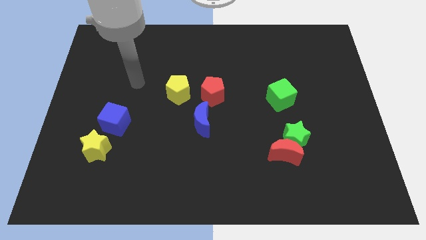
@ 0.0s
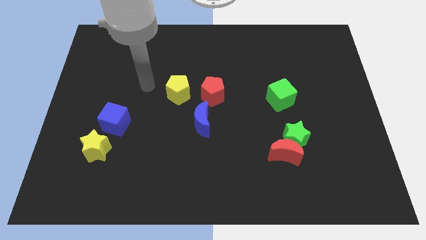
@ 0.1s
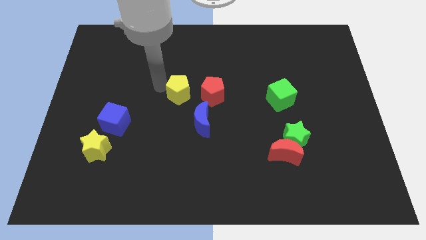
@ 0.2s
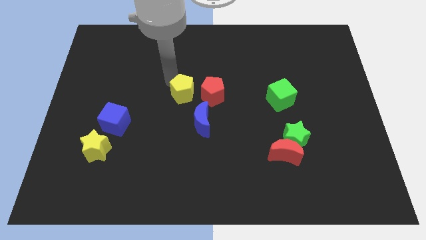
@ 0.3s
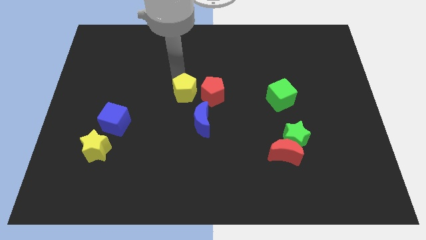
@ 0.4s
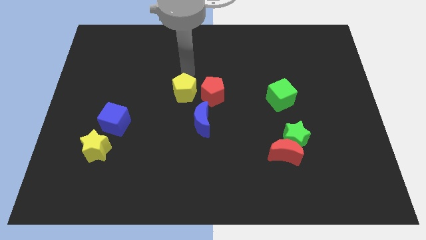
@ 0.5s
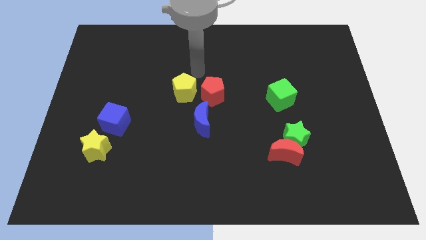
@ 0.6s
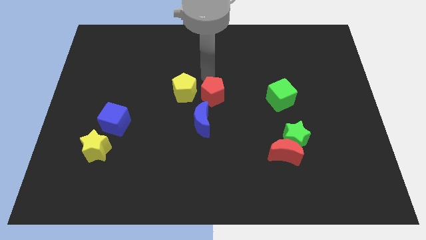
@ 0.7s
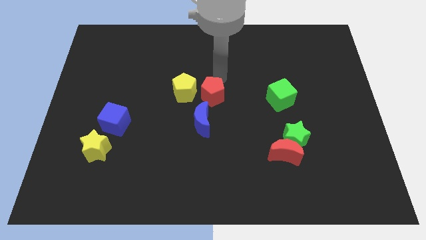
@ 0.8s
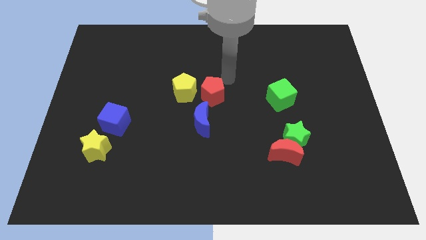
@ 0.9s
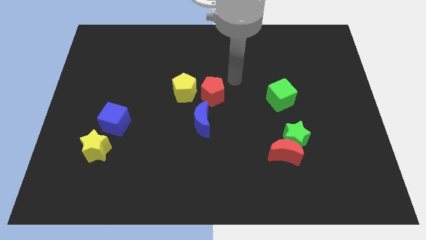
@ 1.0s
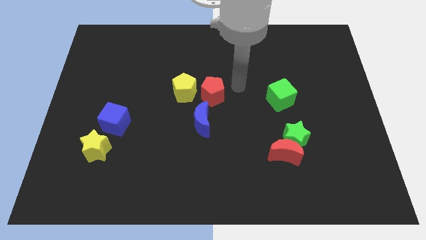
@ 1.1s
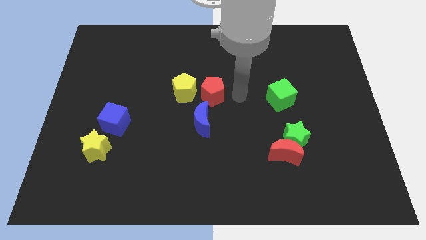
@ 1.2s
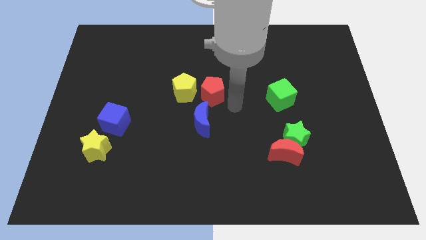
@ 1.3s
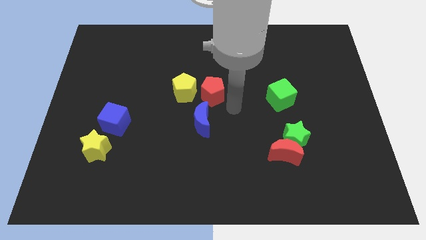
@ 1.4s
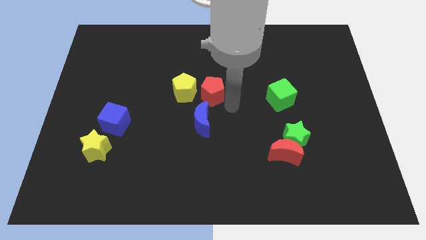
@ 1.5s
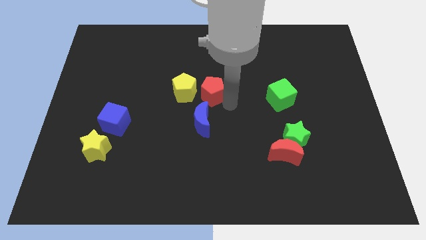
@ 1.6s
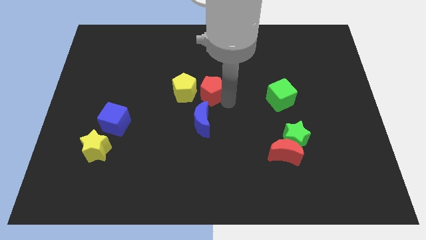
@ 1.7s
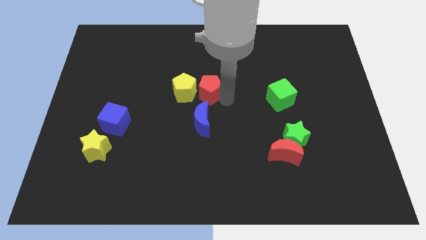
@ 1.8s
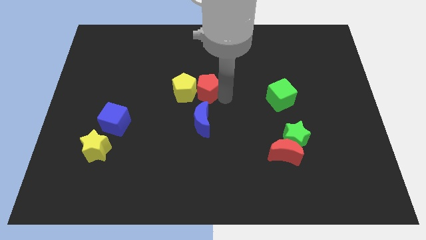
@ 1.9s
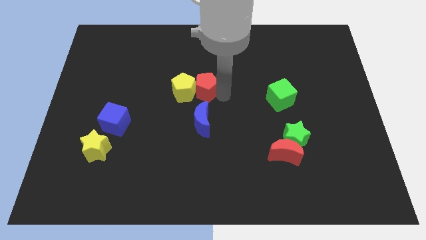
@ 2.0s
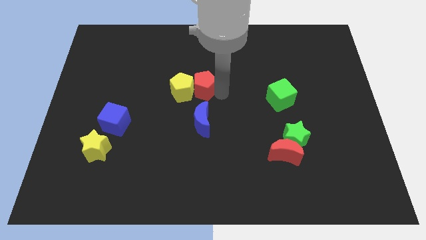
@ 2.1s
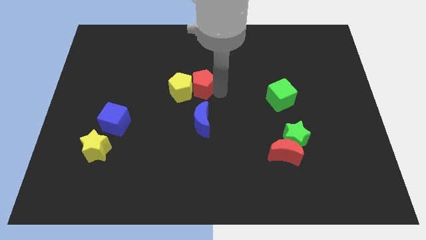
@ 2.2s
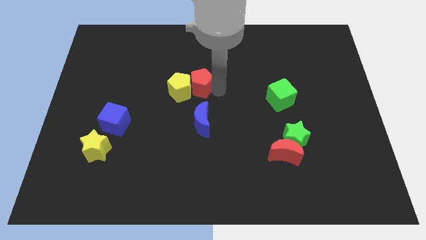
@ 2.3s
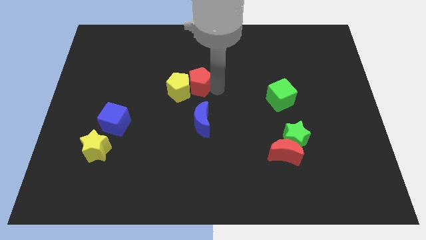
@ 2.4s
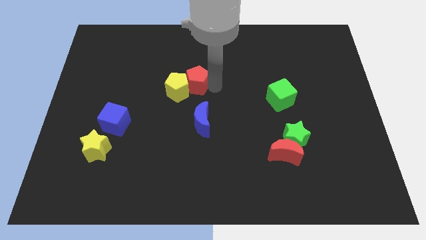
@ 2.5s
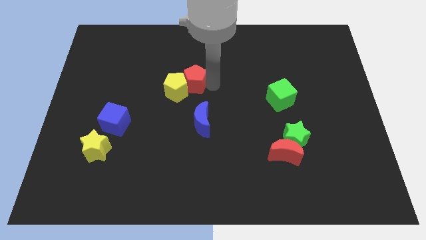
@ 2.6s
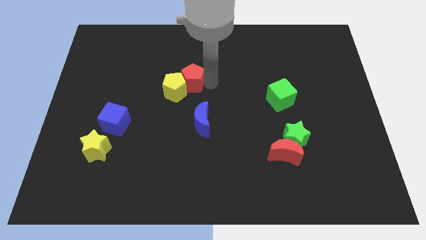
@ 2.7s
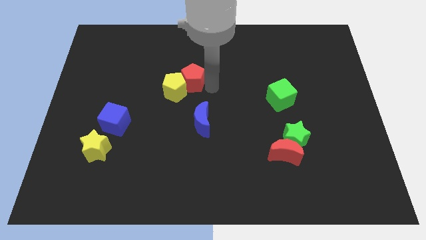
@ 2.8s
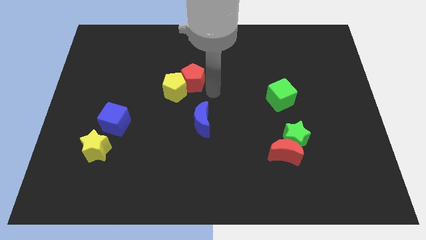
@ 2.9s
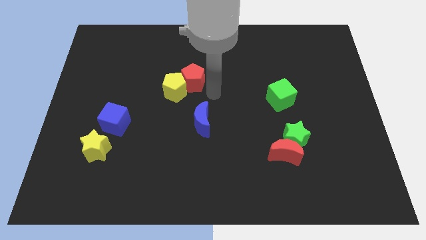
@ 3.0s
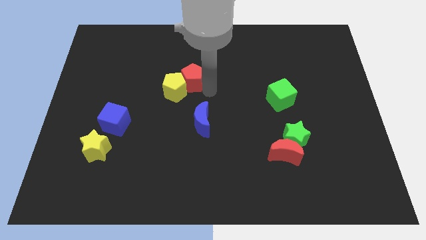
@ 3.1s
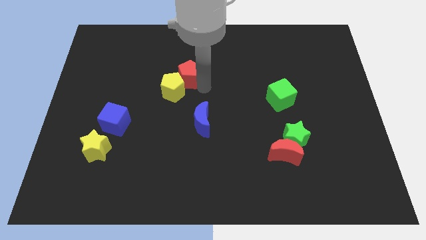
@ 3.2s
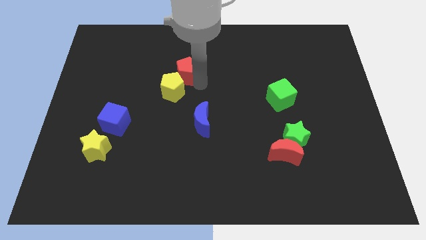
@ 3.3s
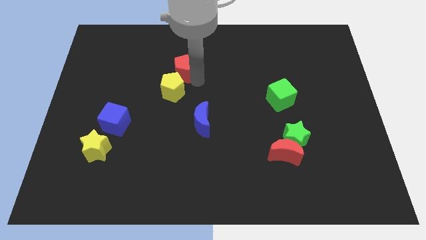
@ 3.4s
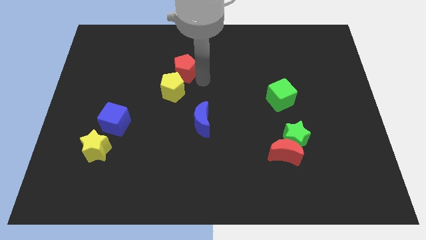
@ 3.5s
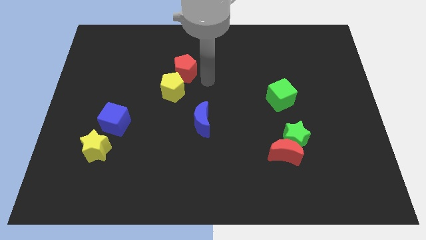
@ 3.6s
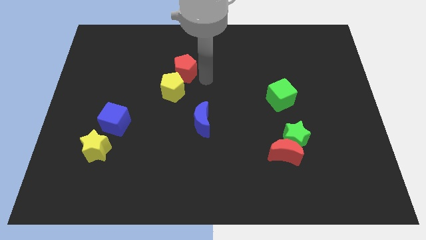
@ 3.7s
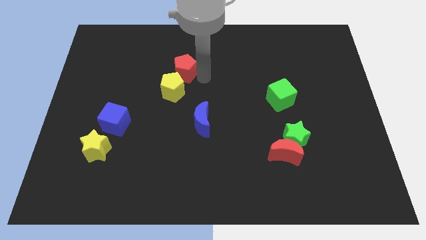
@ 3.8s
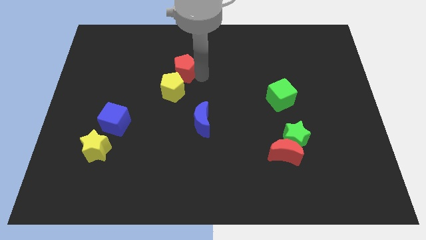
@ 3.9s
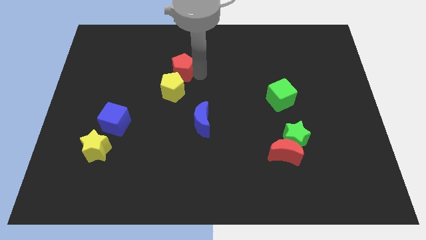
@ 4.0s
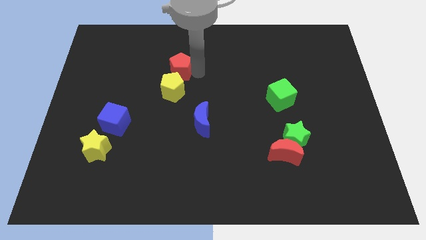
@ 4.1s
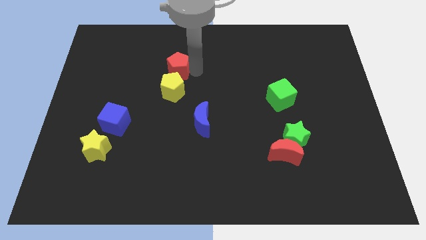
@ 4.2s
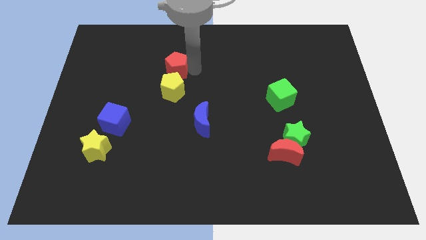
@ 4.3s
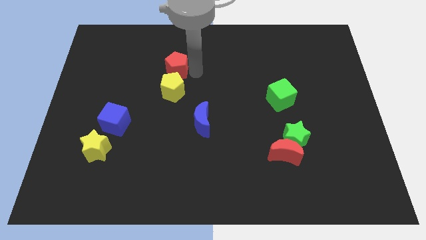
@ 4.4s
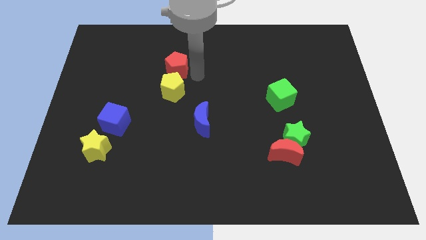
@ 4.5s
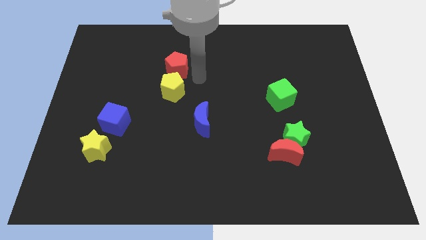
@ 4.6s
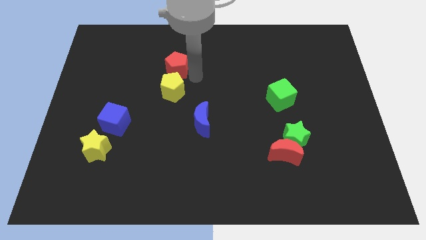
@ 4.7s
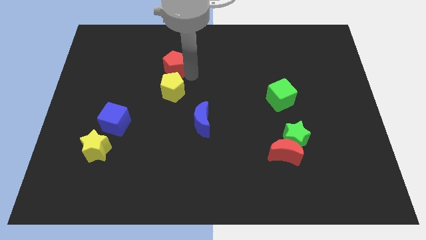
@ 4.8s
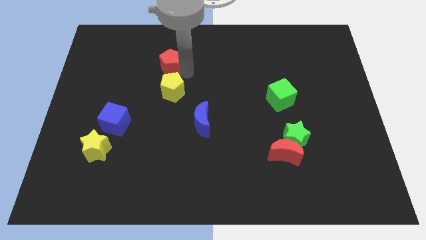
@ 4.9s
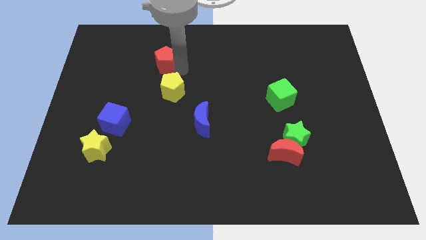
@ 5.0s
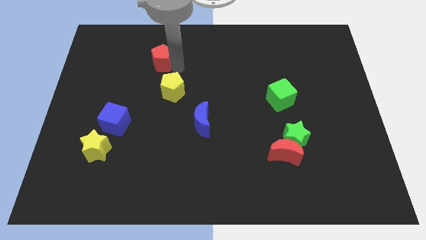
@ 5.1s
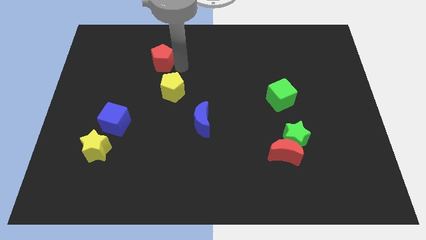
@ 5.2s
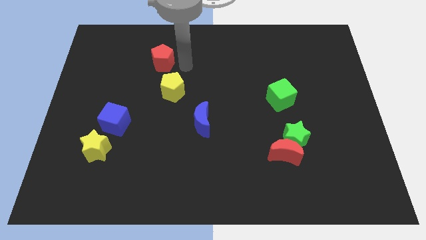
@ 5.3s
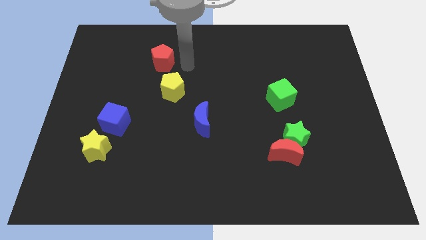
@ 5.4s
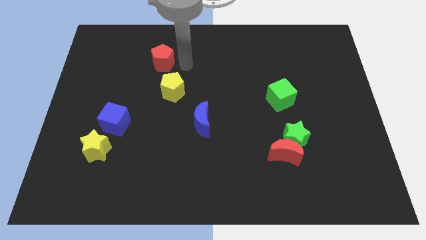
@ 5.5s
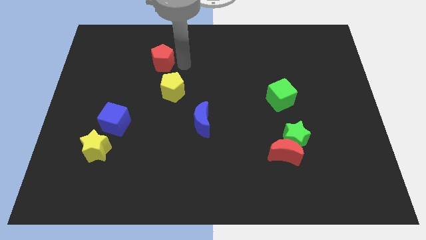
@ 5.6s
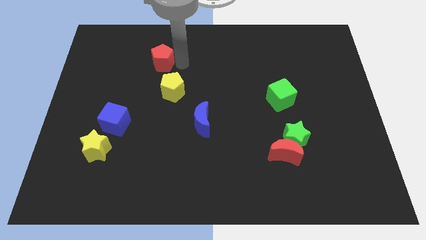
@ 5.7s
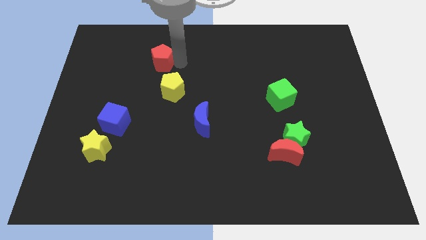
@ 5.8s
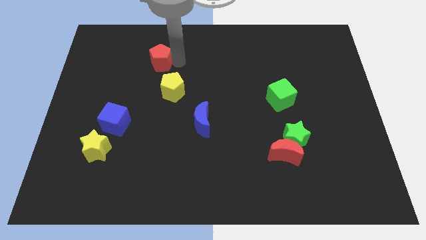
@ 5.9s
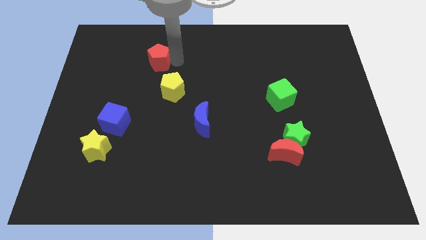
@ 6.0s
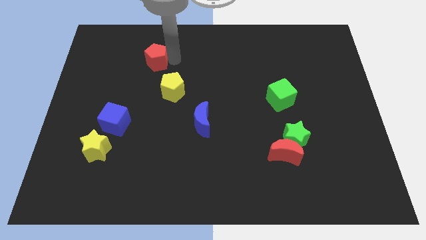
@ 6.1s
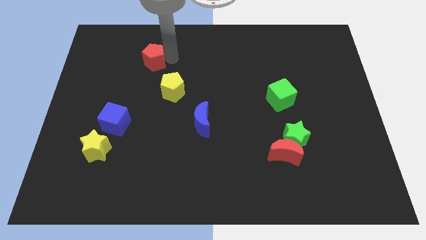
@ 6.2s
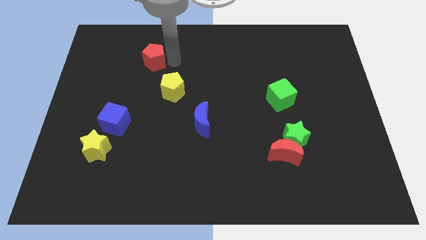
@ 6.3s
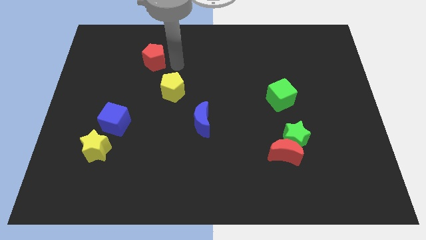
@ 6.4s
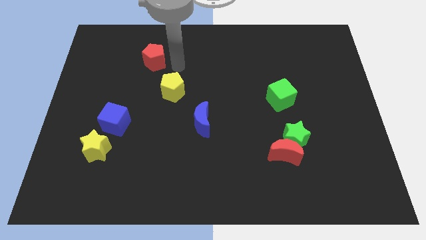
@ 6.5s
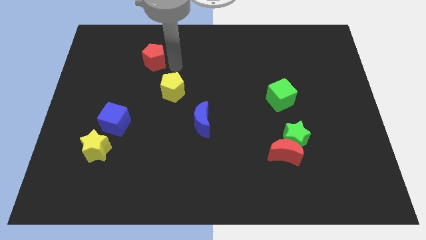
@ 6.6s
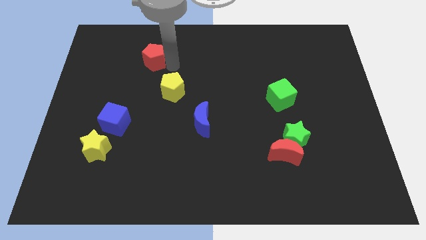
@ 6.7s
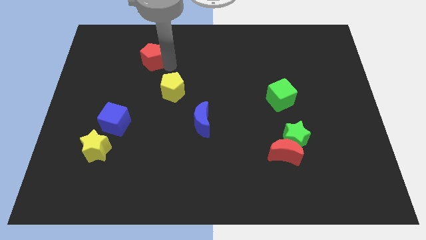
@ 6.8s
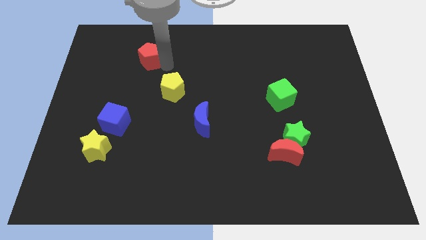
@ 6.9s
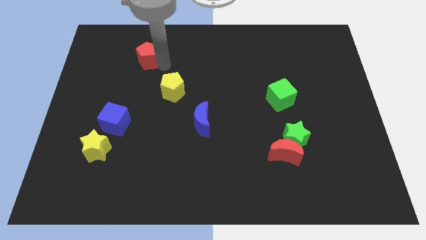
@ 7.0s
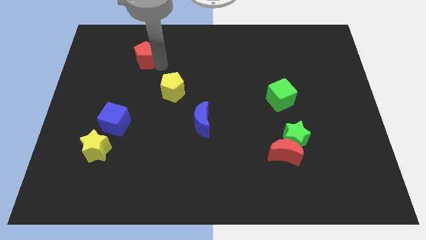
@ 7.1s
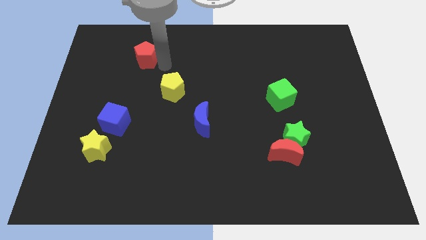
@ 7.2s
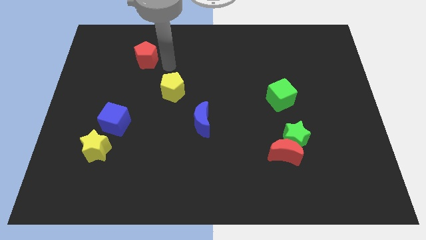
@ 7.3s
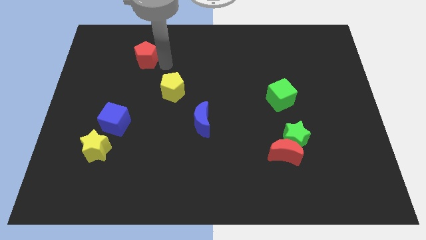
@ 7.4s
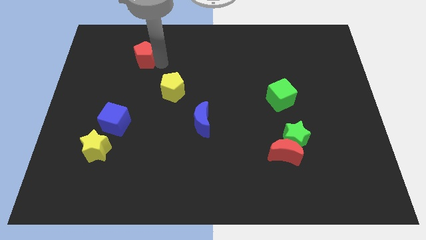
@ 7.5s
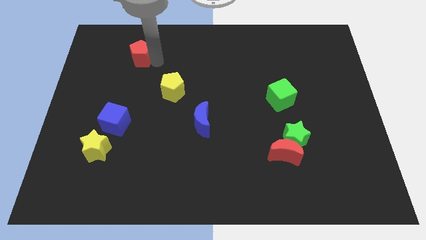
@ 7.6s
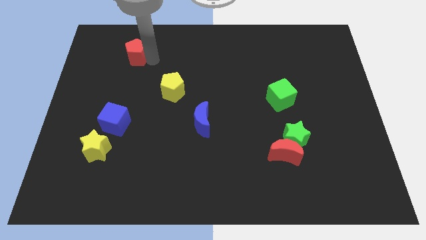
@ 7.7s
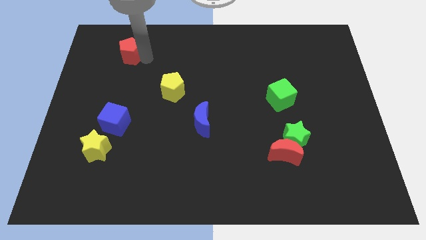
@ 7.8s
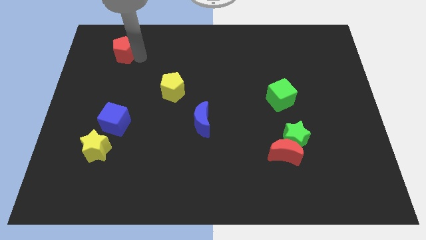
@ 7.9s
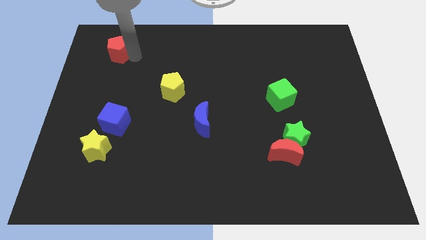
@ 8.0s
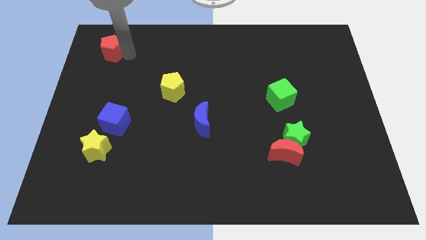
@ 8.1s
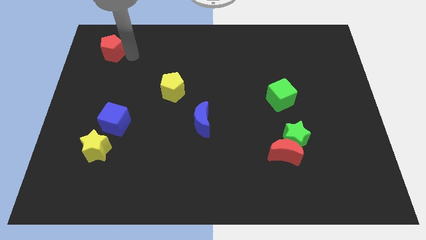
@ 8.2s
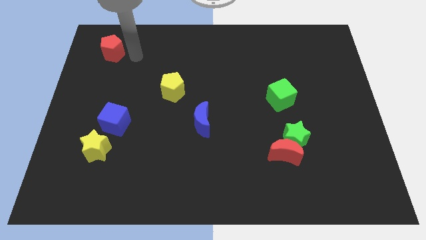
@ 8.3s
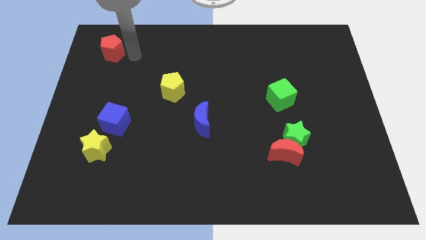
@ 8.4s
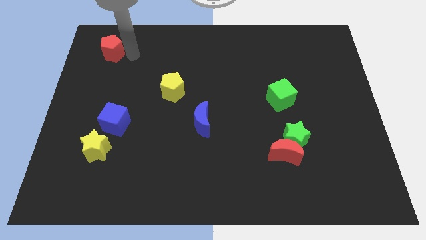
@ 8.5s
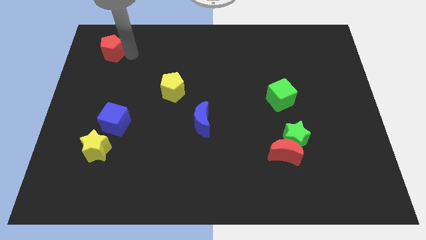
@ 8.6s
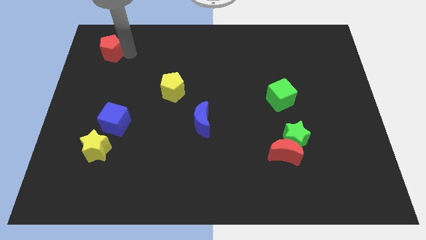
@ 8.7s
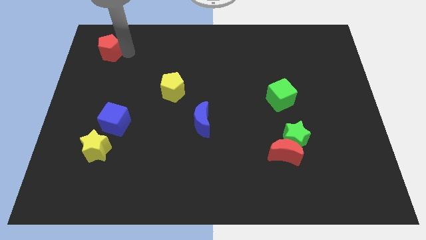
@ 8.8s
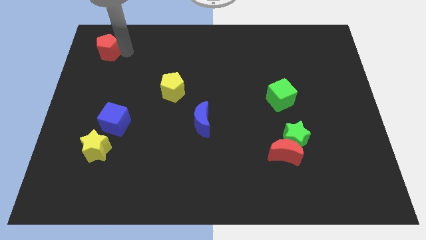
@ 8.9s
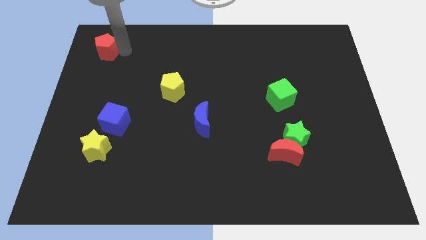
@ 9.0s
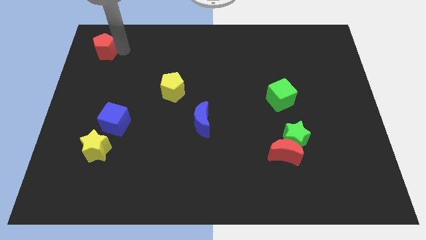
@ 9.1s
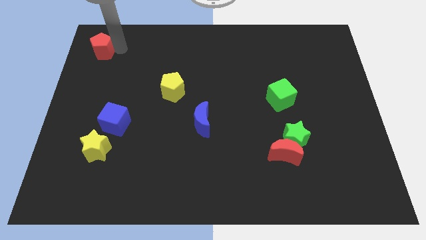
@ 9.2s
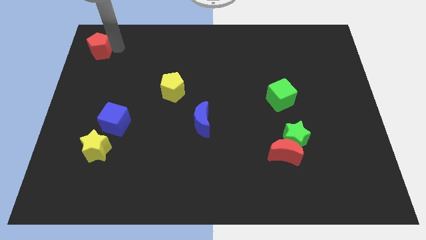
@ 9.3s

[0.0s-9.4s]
put the red pentagon to the top left of the board
